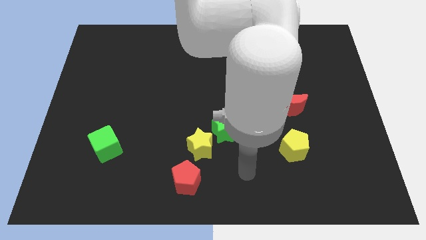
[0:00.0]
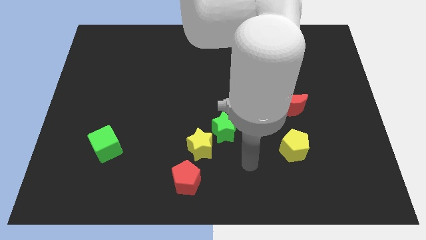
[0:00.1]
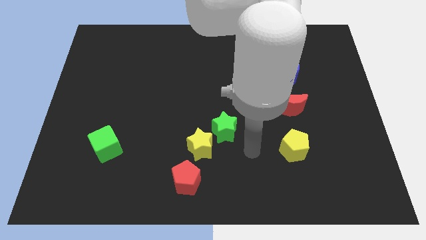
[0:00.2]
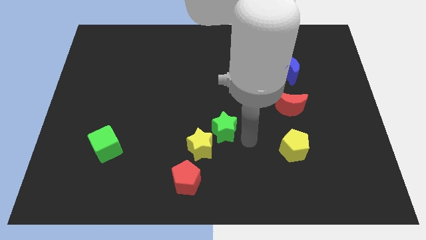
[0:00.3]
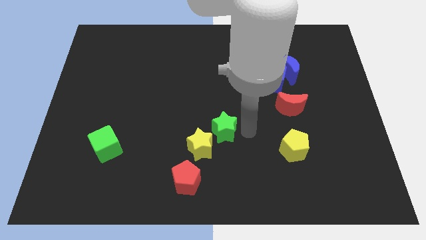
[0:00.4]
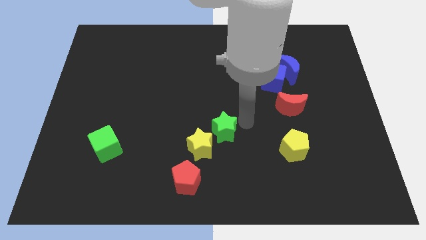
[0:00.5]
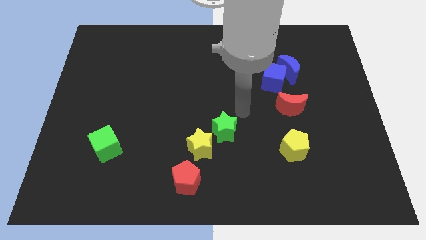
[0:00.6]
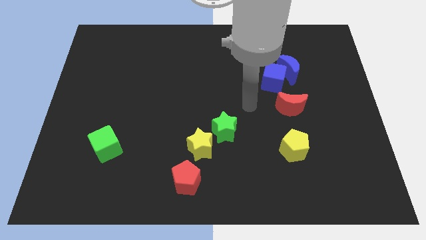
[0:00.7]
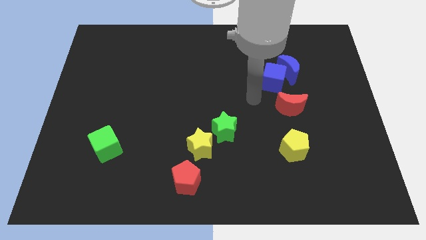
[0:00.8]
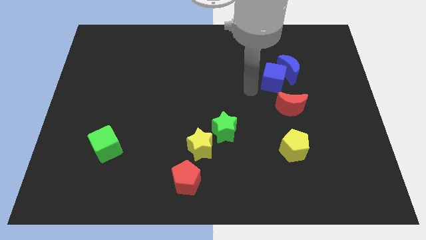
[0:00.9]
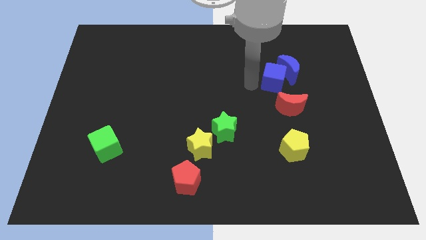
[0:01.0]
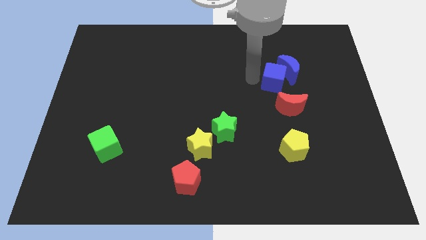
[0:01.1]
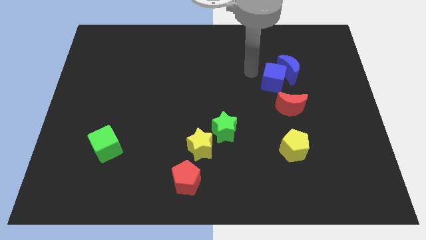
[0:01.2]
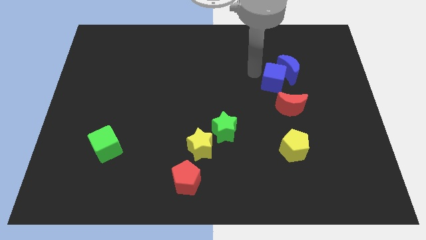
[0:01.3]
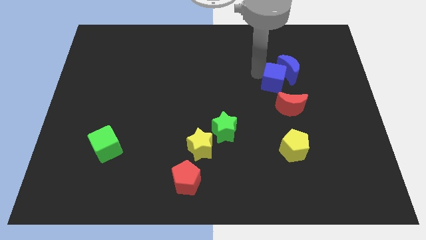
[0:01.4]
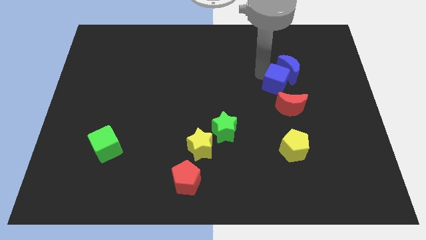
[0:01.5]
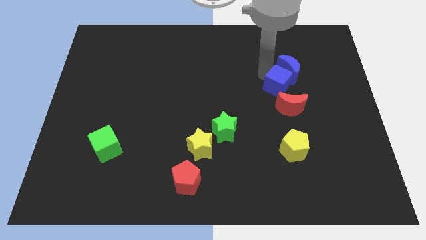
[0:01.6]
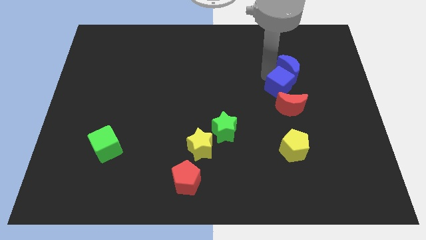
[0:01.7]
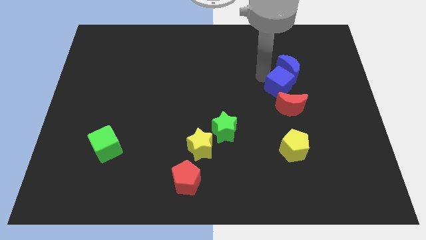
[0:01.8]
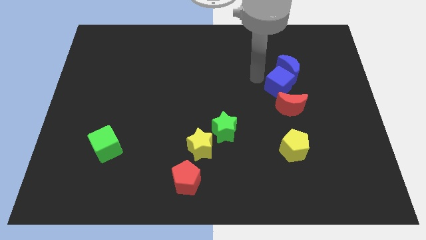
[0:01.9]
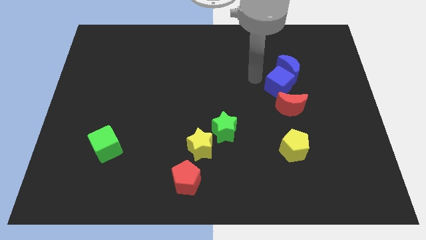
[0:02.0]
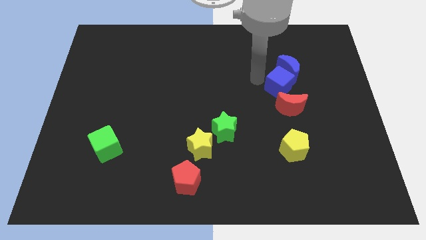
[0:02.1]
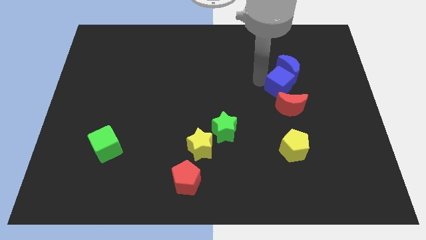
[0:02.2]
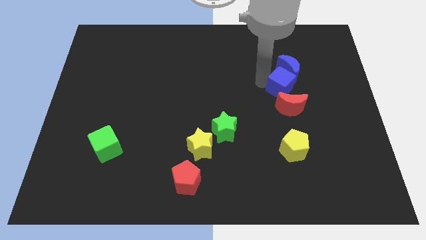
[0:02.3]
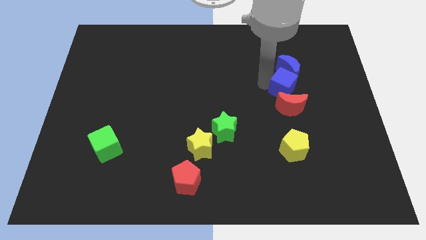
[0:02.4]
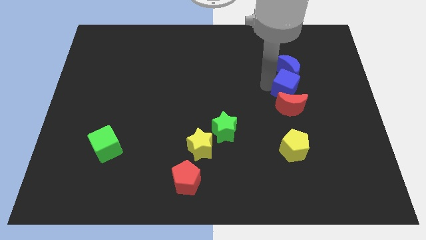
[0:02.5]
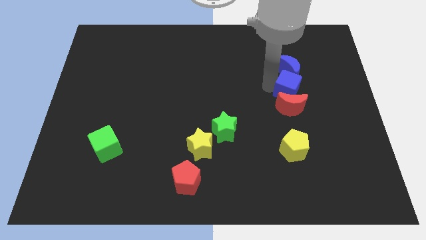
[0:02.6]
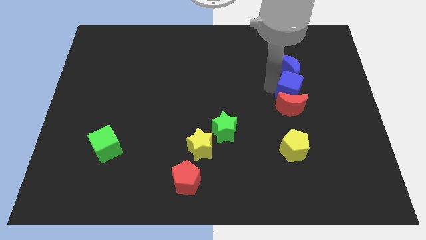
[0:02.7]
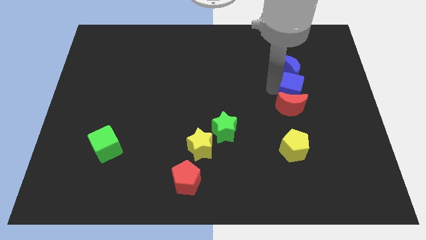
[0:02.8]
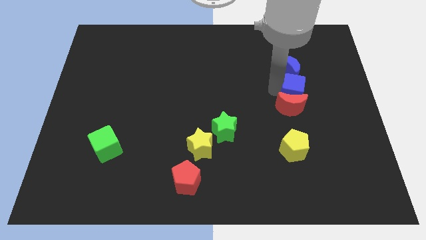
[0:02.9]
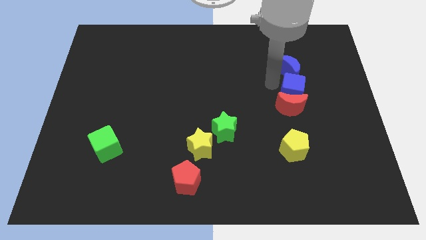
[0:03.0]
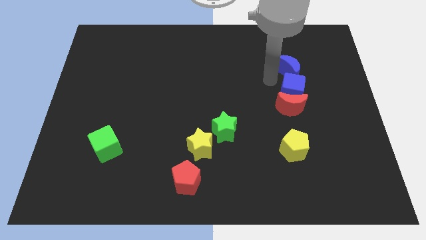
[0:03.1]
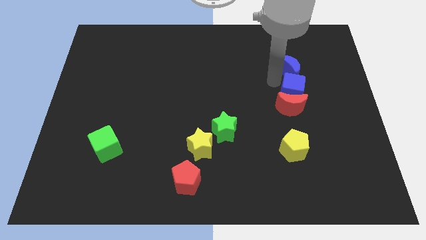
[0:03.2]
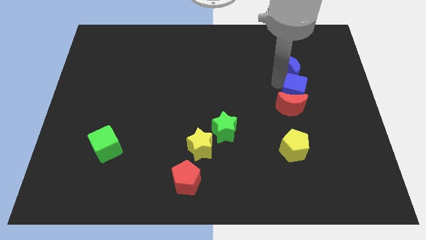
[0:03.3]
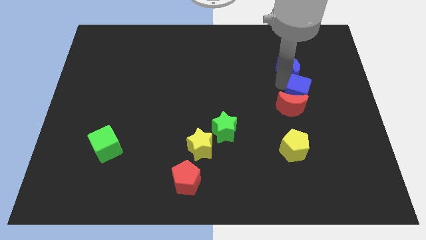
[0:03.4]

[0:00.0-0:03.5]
slightly push the blue cube diagonally downwards and to the right

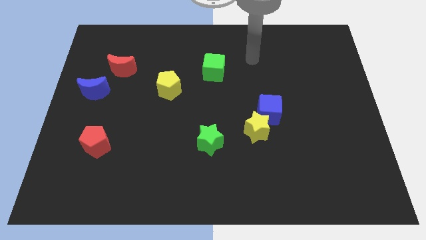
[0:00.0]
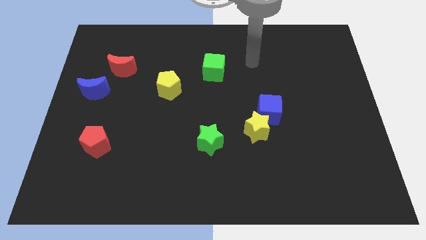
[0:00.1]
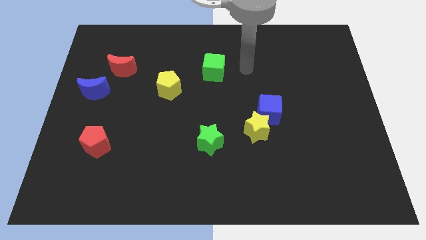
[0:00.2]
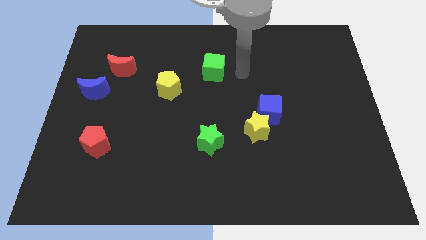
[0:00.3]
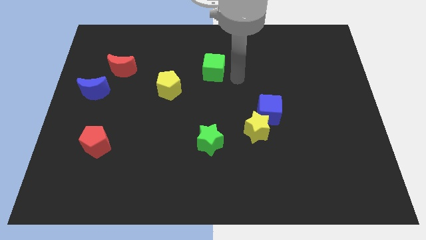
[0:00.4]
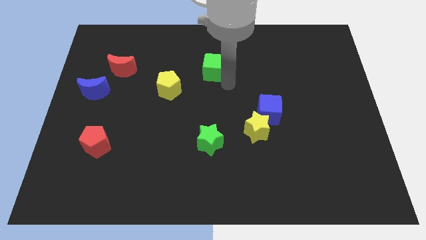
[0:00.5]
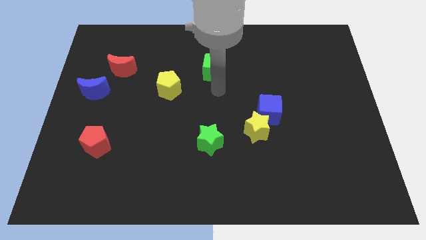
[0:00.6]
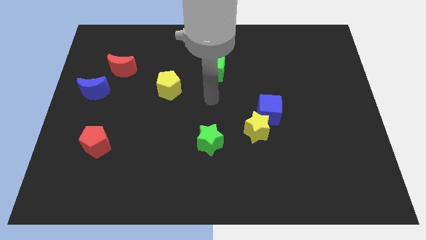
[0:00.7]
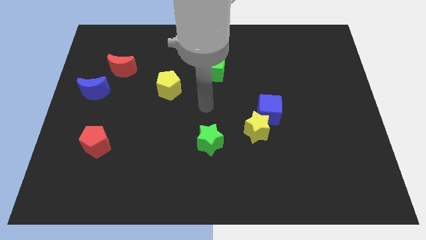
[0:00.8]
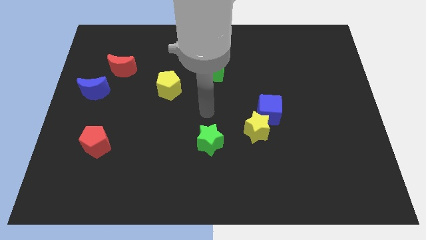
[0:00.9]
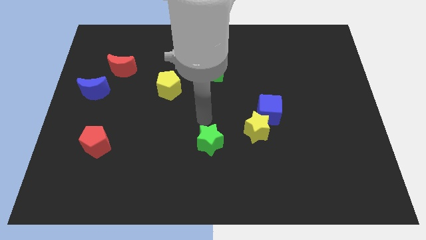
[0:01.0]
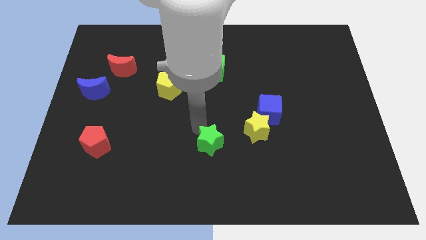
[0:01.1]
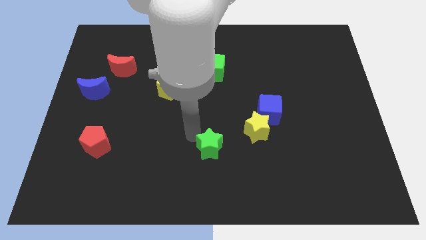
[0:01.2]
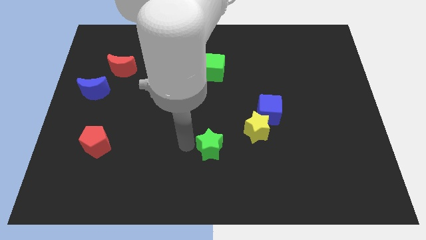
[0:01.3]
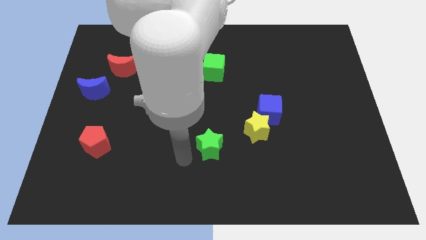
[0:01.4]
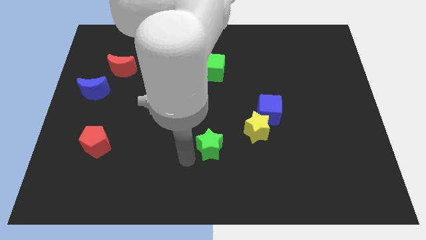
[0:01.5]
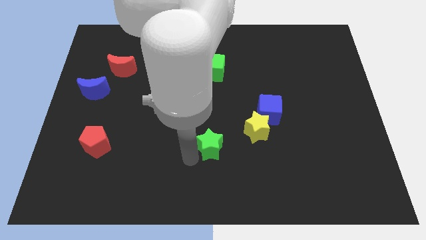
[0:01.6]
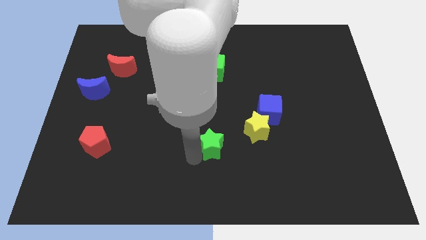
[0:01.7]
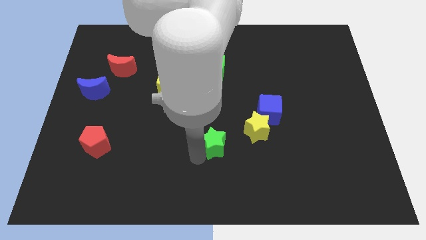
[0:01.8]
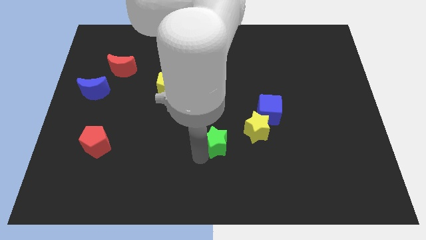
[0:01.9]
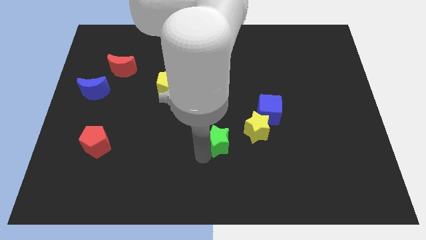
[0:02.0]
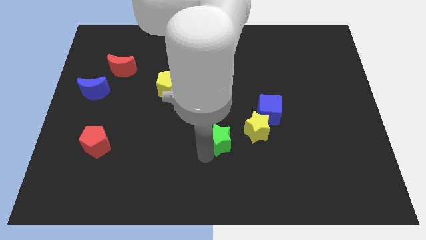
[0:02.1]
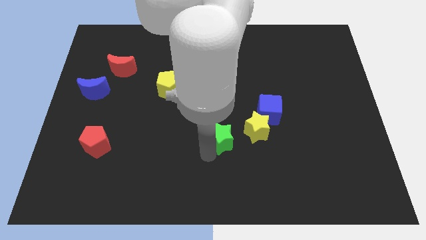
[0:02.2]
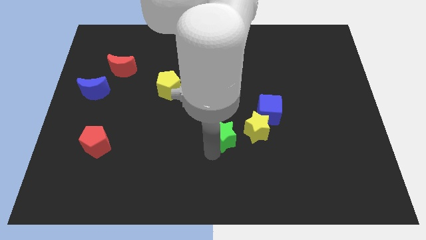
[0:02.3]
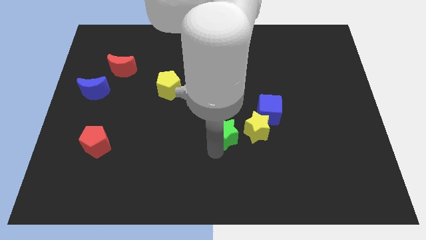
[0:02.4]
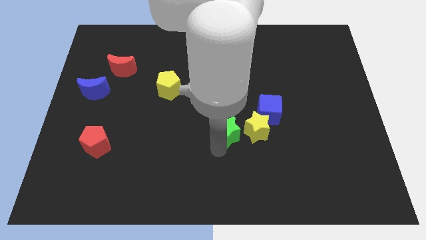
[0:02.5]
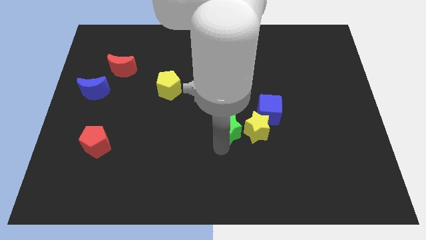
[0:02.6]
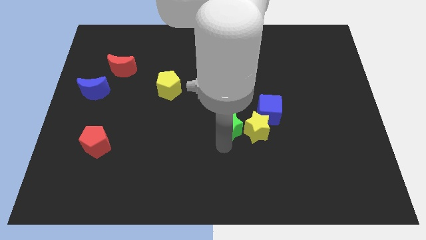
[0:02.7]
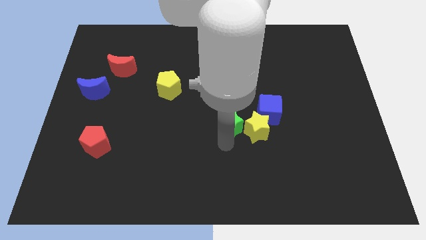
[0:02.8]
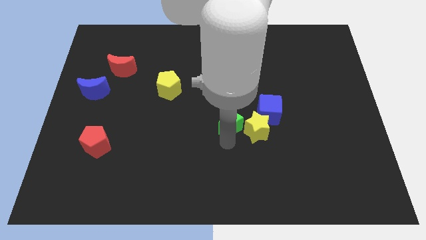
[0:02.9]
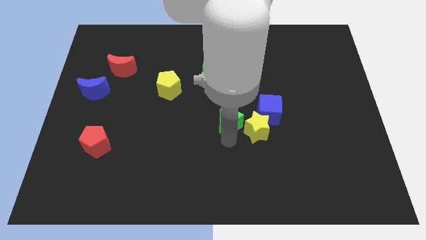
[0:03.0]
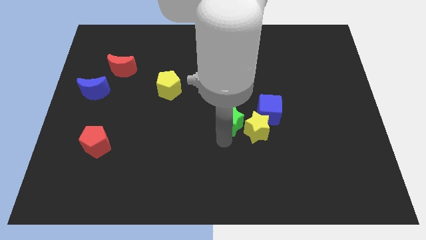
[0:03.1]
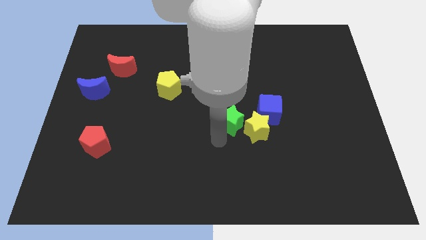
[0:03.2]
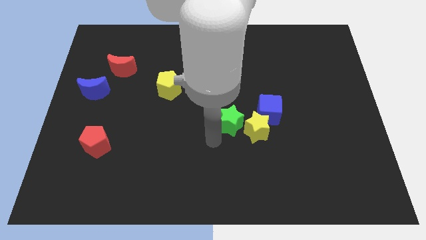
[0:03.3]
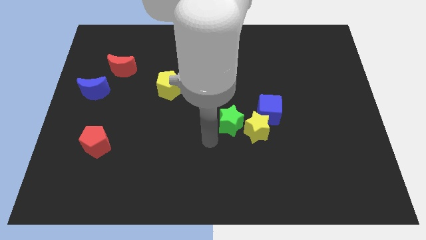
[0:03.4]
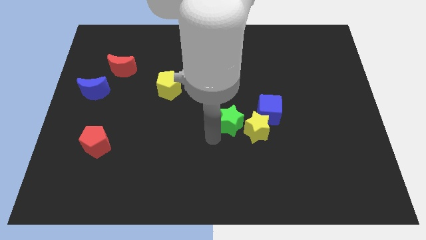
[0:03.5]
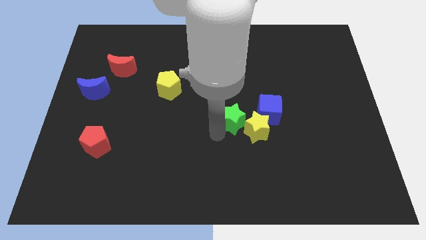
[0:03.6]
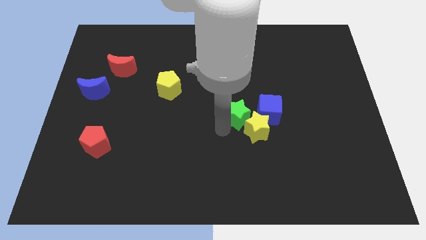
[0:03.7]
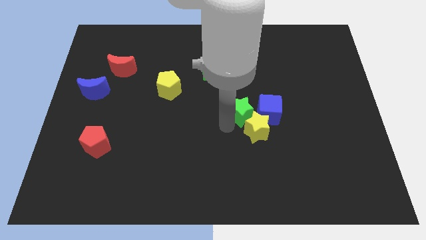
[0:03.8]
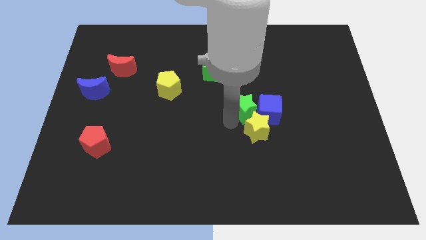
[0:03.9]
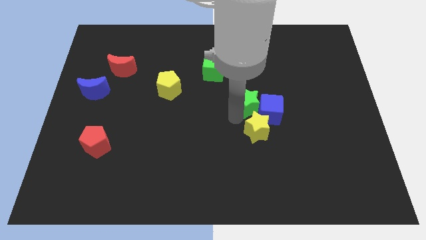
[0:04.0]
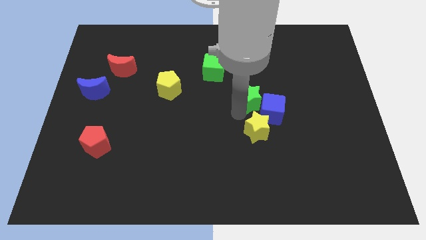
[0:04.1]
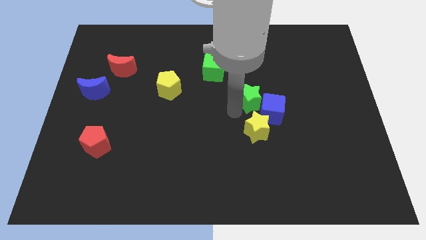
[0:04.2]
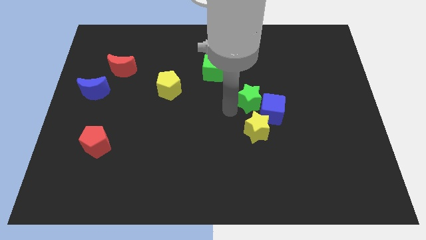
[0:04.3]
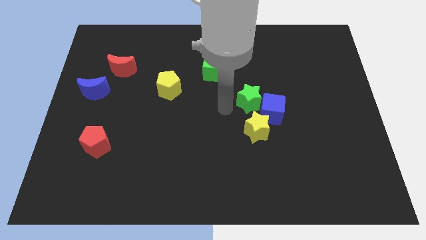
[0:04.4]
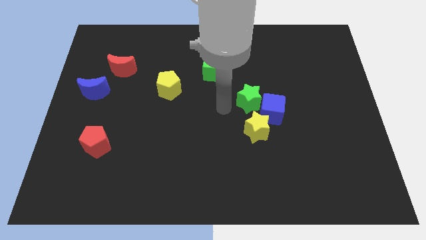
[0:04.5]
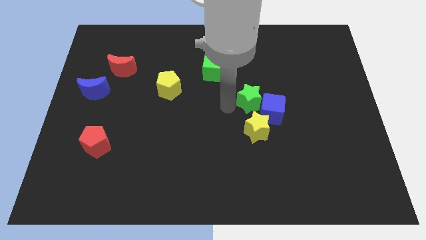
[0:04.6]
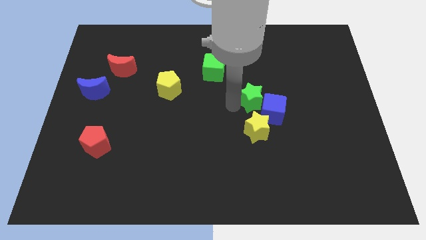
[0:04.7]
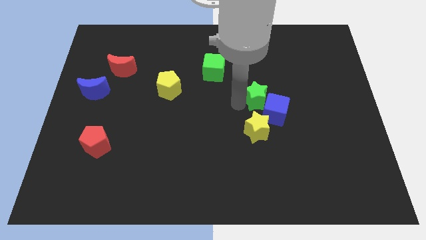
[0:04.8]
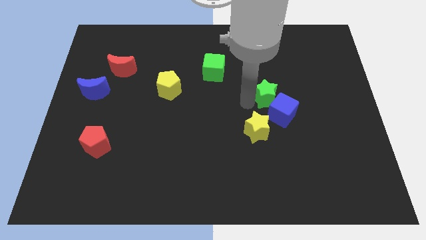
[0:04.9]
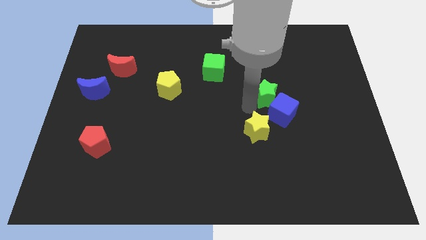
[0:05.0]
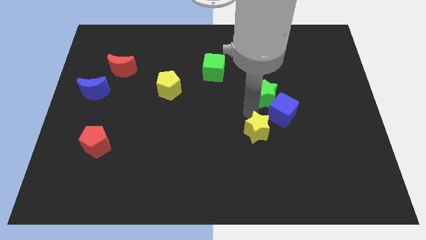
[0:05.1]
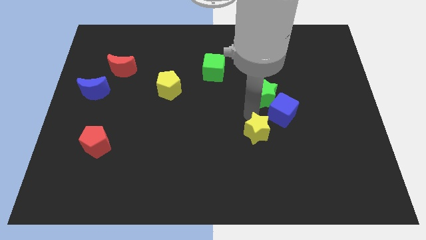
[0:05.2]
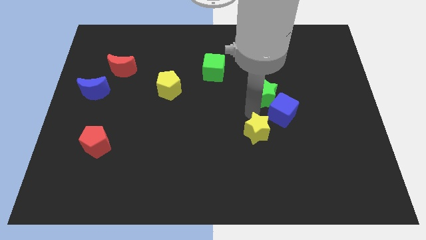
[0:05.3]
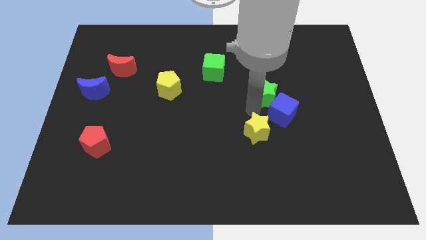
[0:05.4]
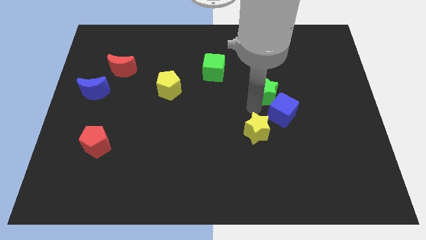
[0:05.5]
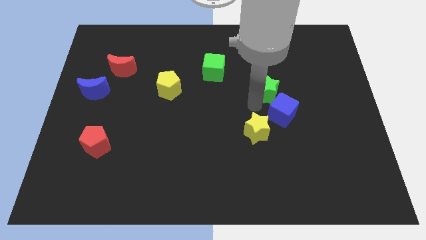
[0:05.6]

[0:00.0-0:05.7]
move the green star up and to the right diagonally
